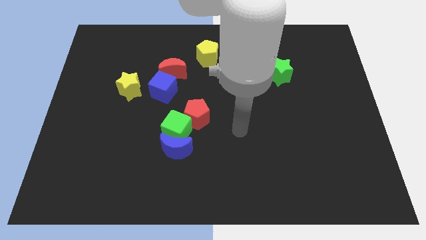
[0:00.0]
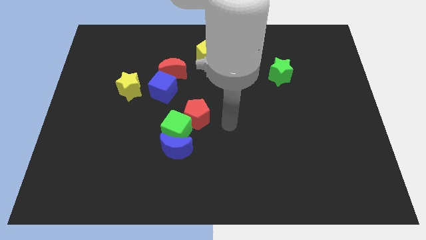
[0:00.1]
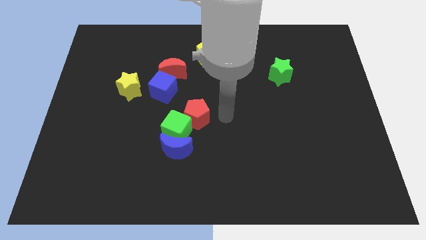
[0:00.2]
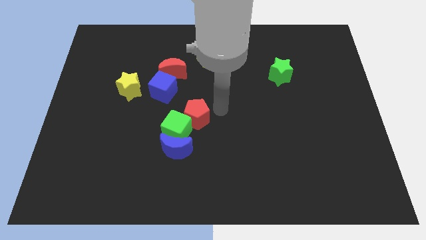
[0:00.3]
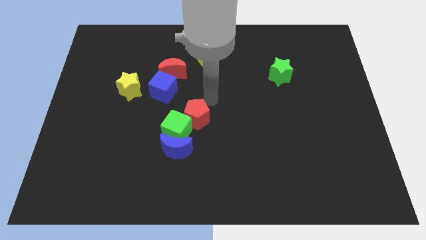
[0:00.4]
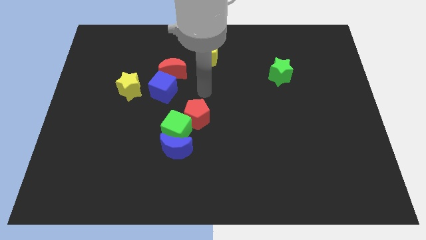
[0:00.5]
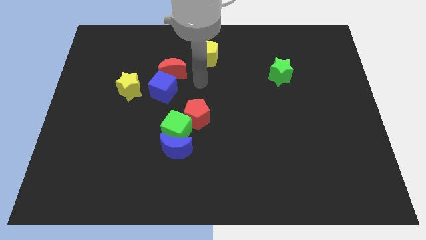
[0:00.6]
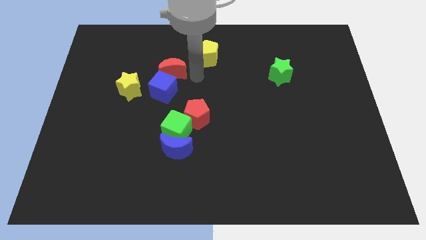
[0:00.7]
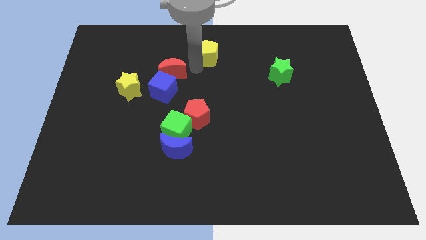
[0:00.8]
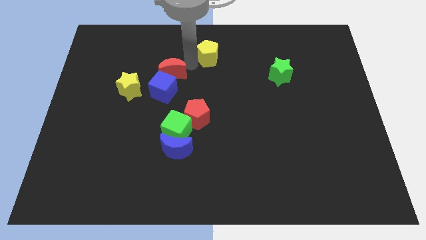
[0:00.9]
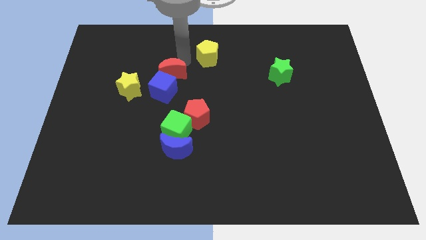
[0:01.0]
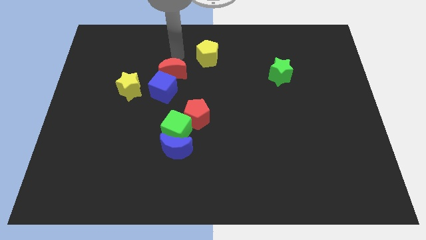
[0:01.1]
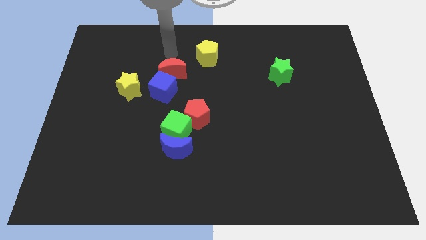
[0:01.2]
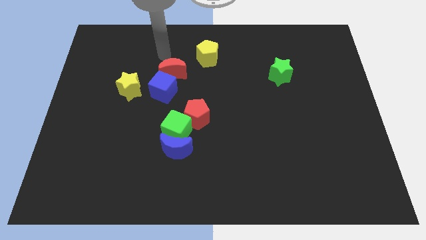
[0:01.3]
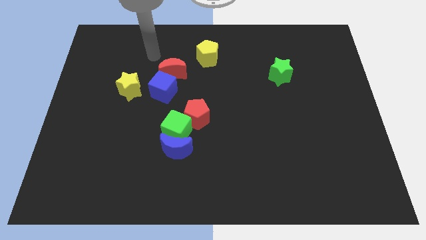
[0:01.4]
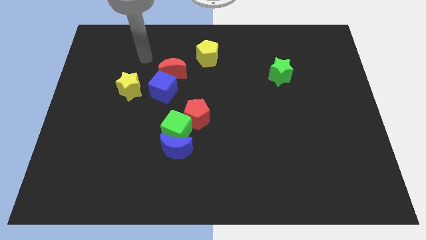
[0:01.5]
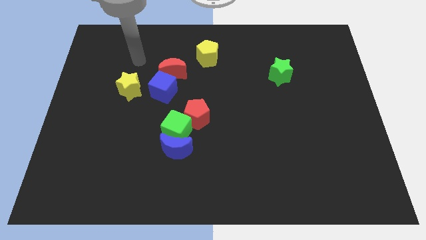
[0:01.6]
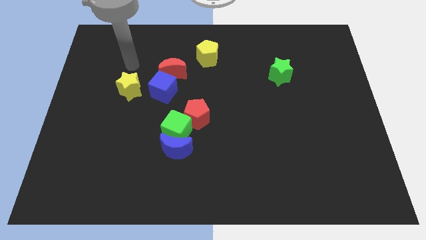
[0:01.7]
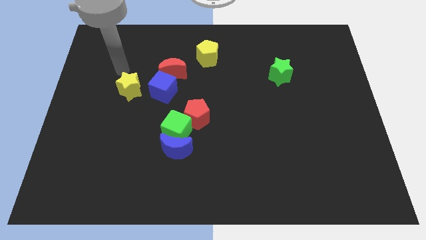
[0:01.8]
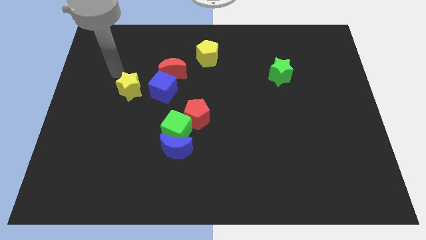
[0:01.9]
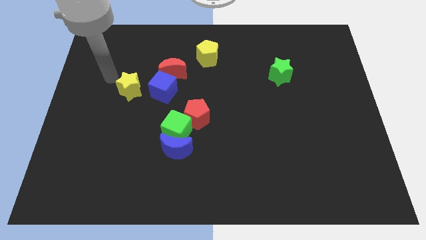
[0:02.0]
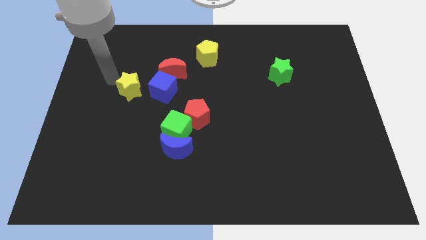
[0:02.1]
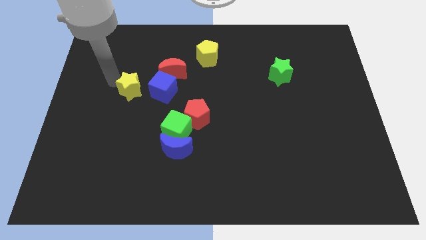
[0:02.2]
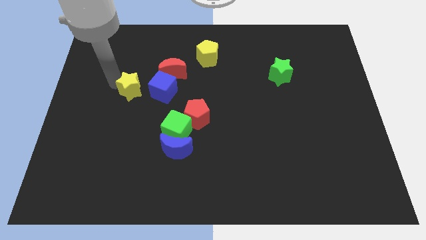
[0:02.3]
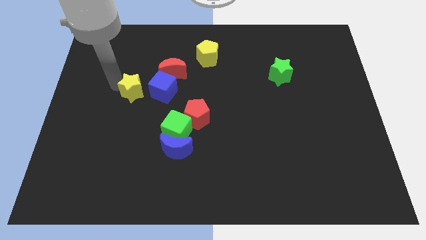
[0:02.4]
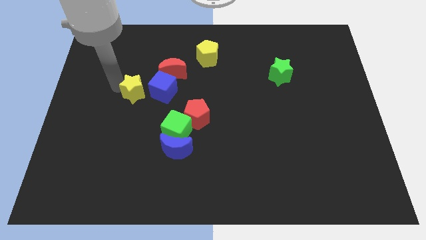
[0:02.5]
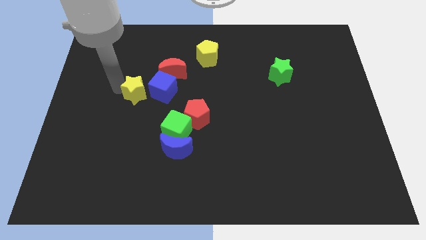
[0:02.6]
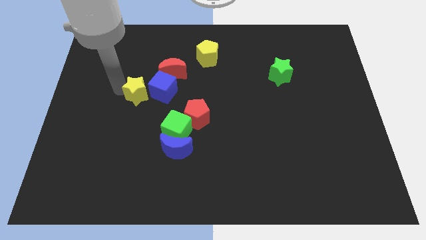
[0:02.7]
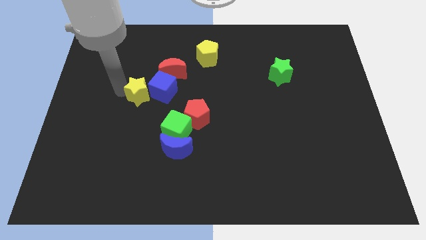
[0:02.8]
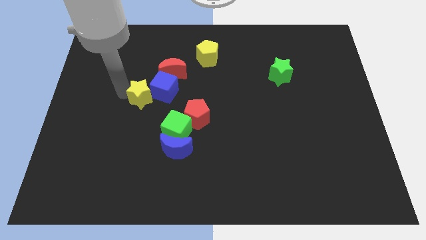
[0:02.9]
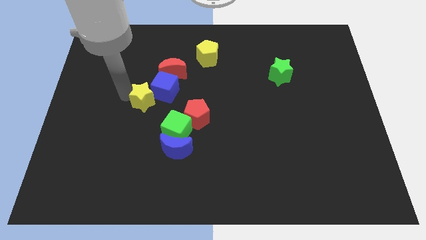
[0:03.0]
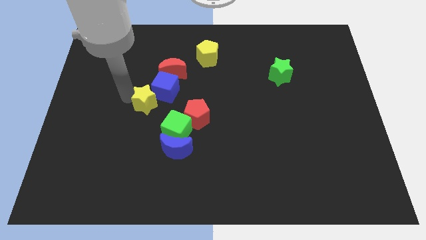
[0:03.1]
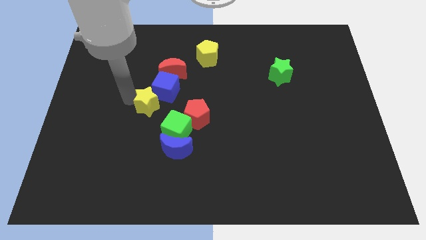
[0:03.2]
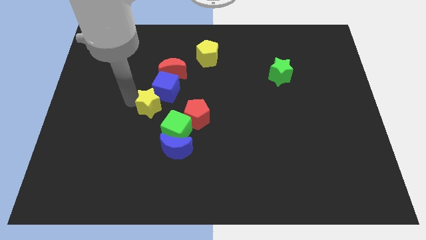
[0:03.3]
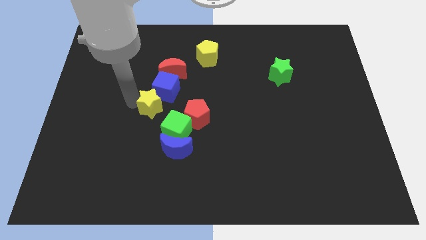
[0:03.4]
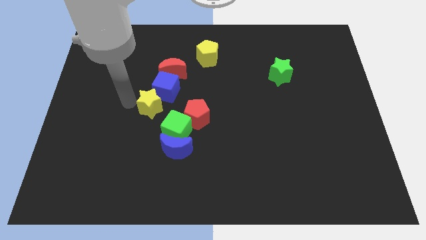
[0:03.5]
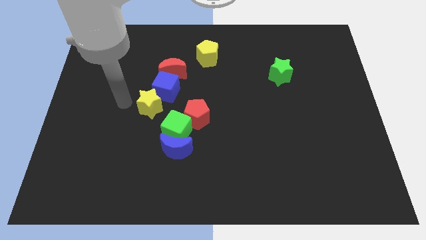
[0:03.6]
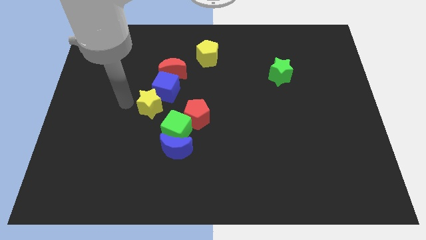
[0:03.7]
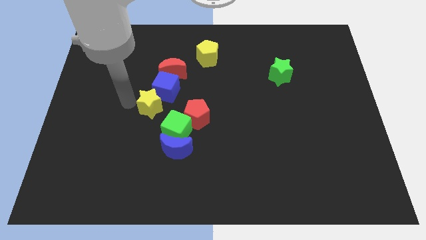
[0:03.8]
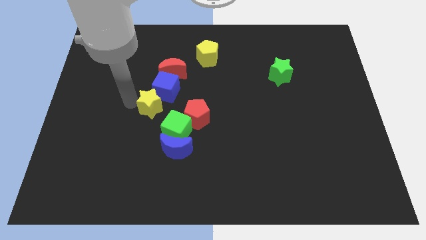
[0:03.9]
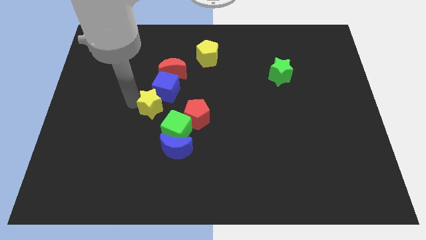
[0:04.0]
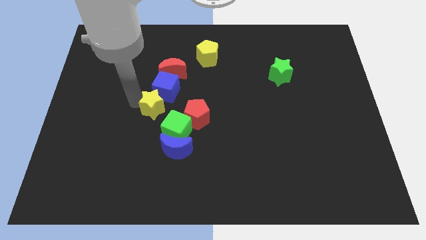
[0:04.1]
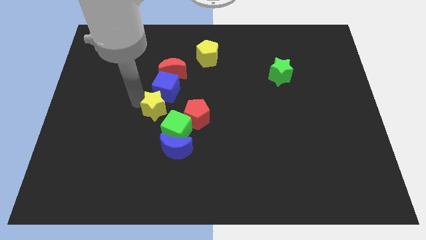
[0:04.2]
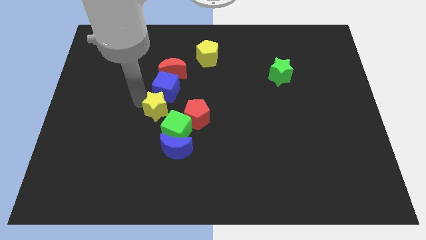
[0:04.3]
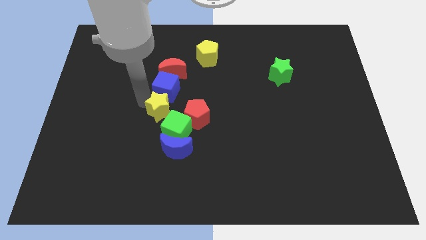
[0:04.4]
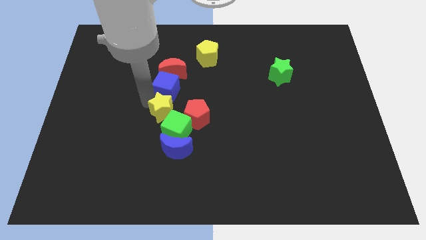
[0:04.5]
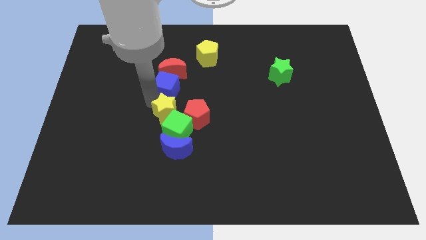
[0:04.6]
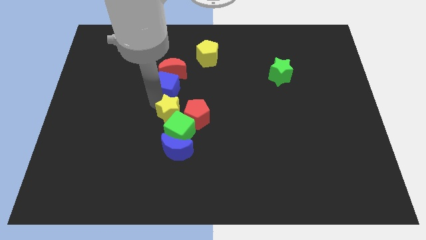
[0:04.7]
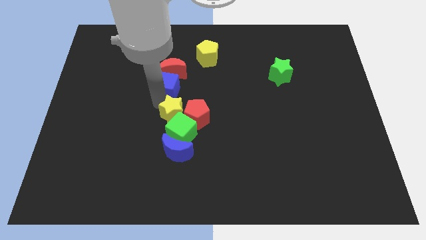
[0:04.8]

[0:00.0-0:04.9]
move the yellow star next to the red pentagon

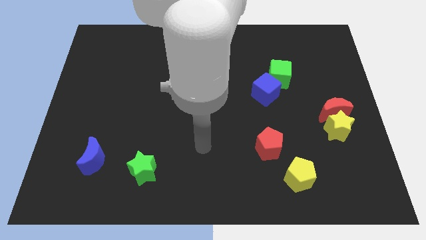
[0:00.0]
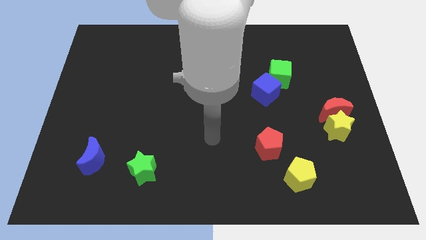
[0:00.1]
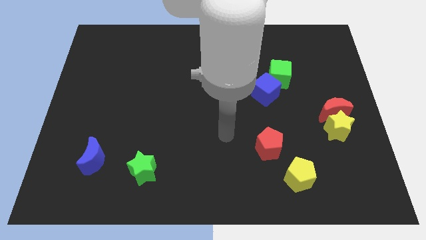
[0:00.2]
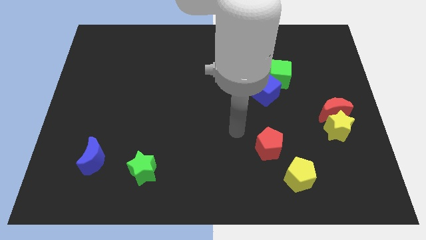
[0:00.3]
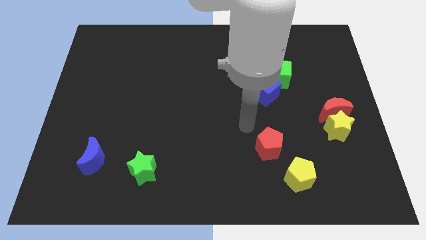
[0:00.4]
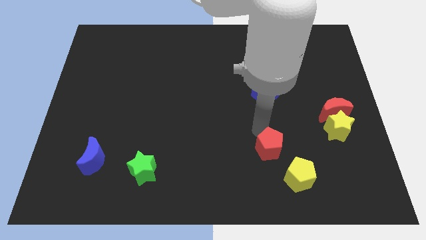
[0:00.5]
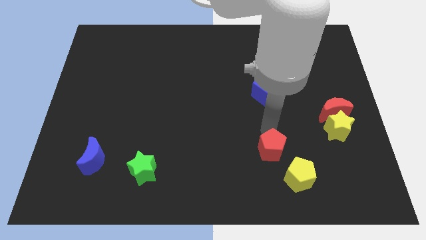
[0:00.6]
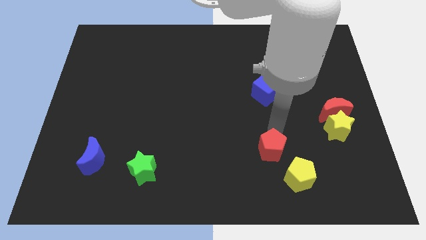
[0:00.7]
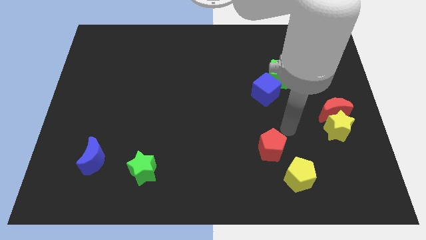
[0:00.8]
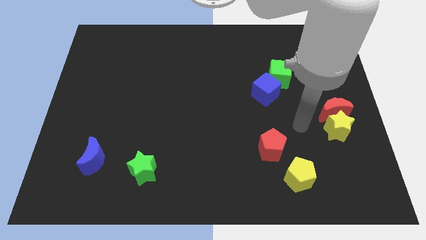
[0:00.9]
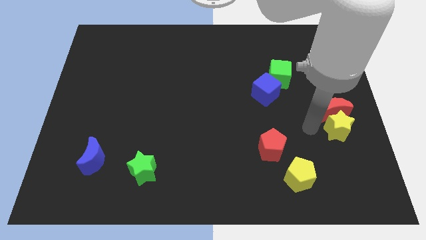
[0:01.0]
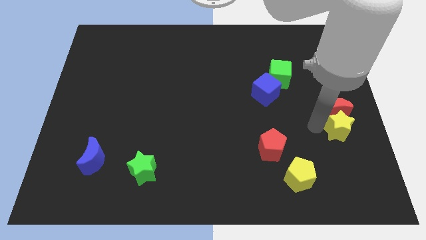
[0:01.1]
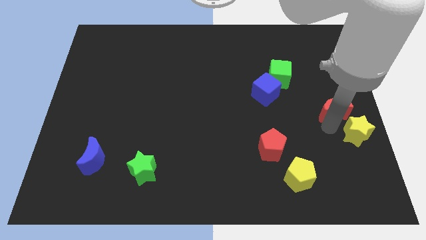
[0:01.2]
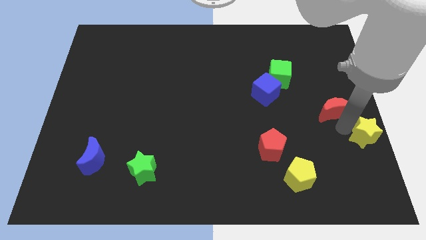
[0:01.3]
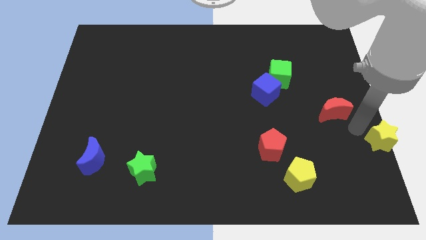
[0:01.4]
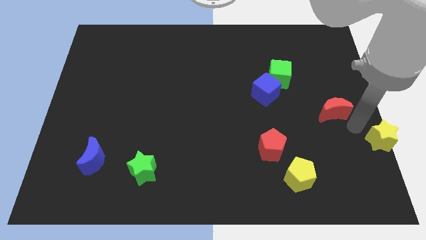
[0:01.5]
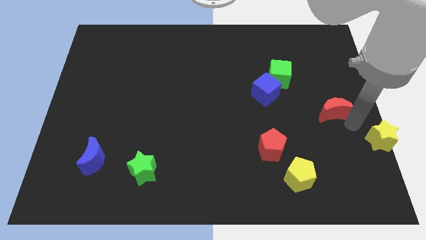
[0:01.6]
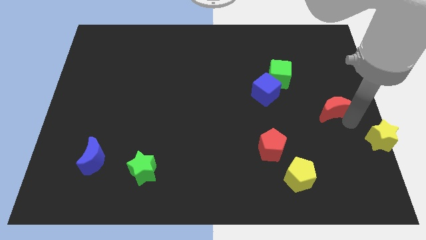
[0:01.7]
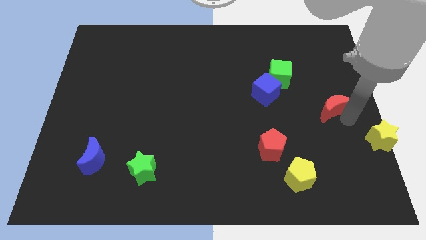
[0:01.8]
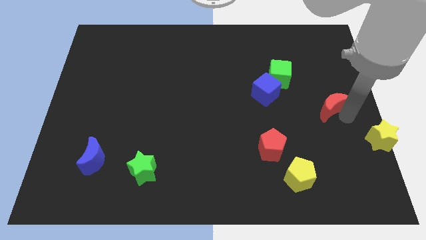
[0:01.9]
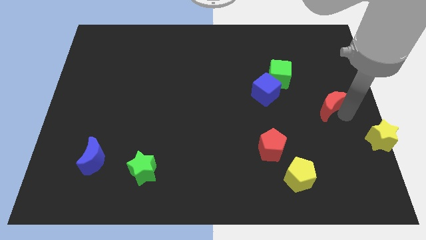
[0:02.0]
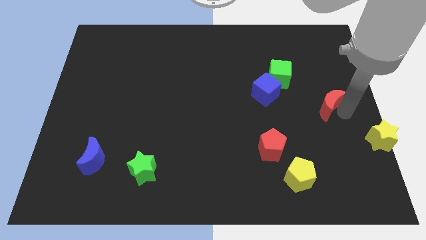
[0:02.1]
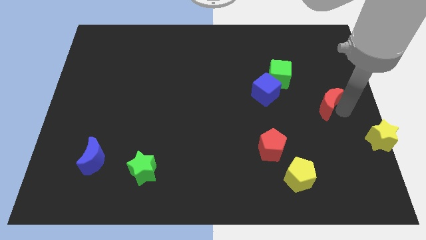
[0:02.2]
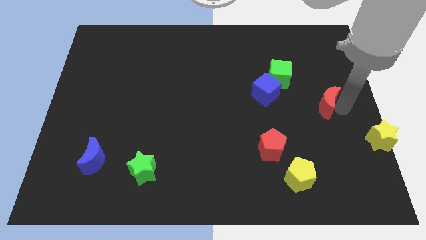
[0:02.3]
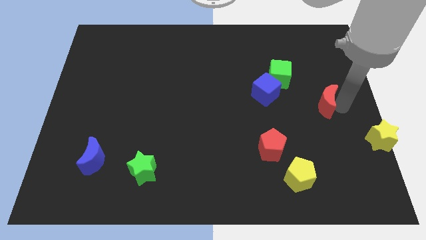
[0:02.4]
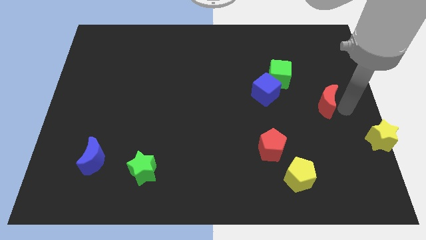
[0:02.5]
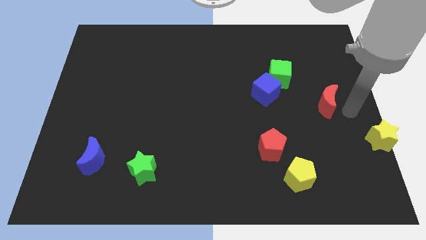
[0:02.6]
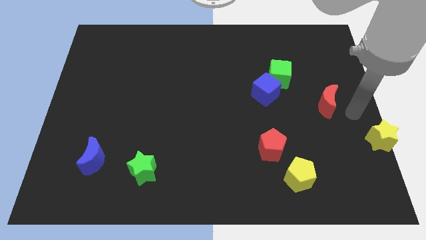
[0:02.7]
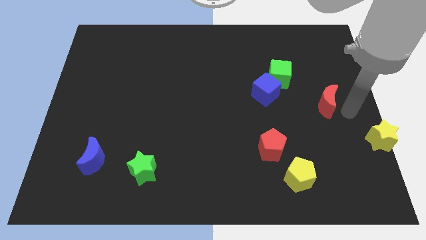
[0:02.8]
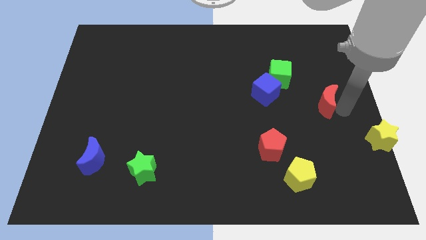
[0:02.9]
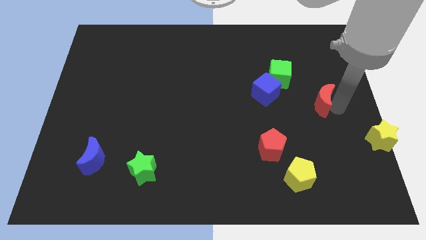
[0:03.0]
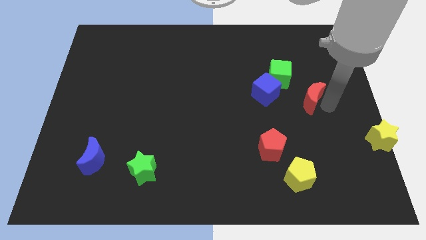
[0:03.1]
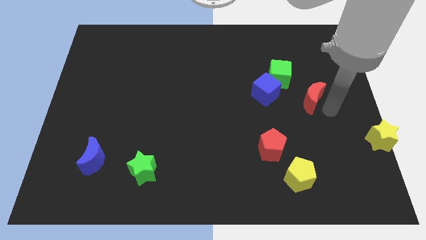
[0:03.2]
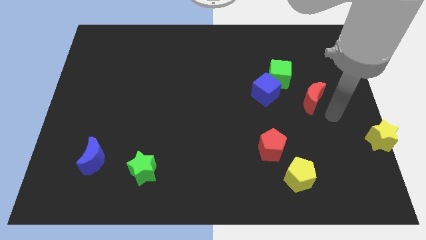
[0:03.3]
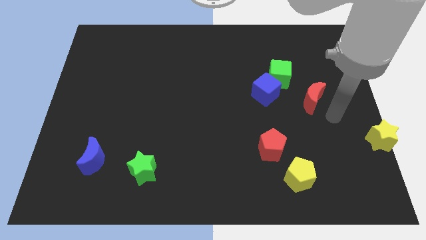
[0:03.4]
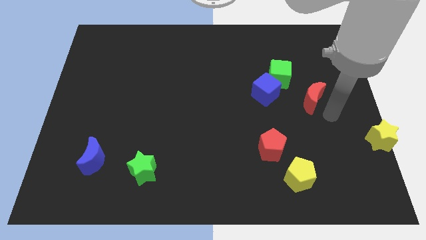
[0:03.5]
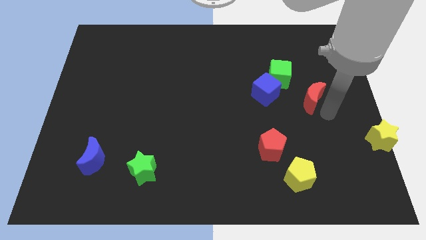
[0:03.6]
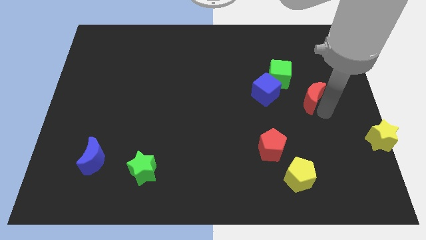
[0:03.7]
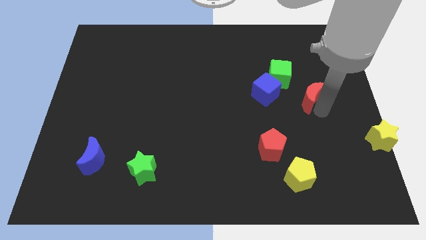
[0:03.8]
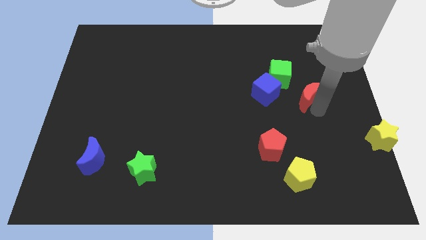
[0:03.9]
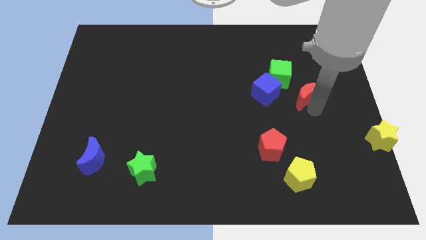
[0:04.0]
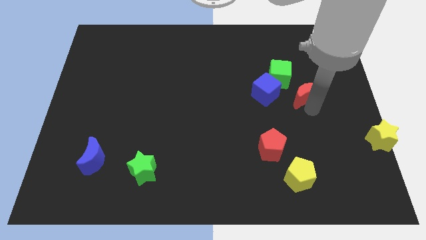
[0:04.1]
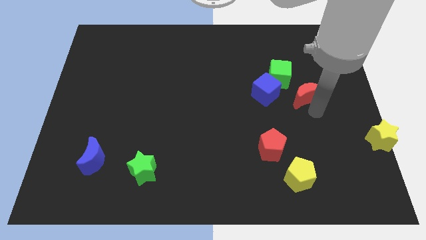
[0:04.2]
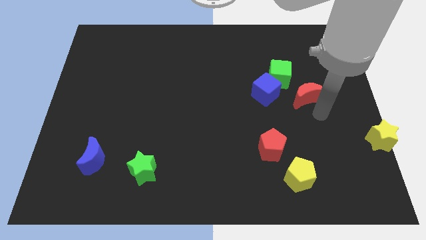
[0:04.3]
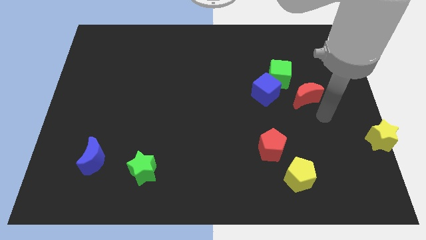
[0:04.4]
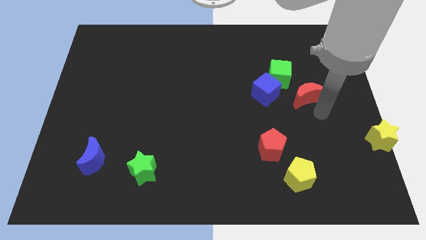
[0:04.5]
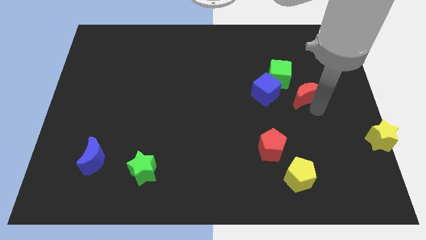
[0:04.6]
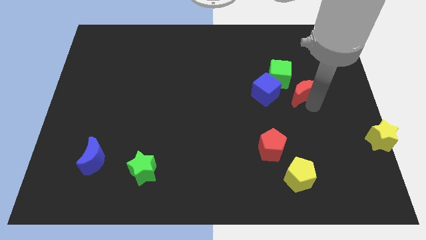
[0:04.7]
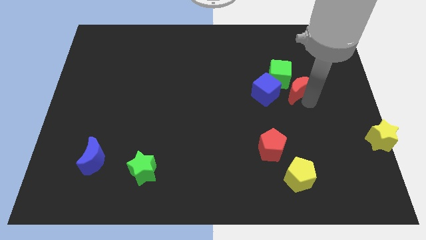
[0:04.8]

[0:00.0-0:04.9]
push the red moon close to the green cube
